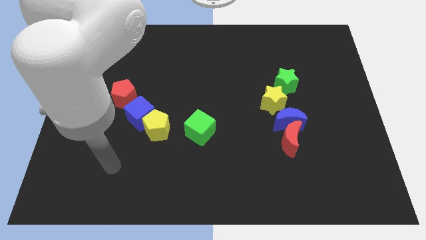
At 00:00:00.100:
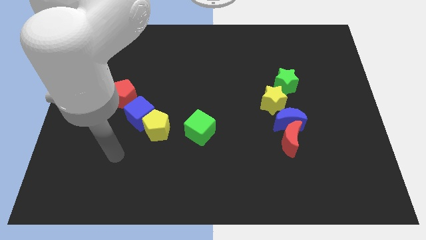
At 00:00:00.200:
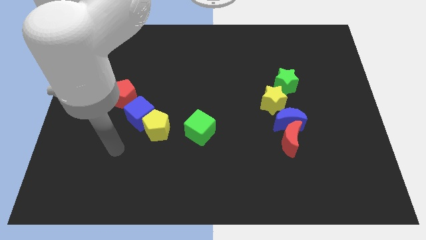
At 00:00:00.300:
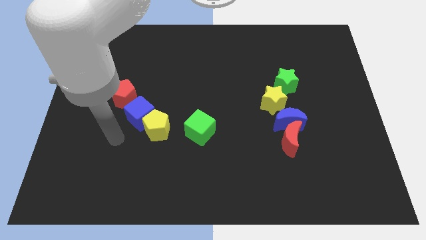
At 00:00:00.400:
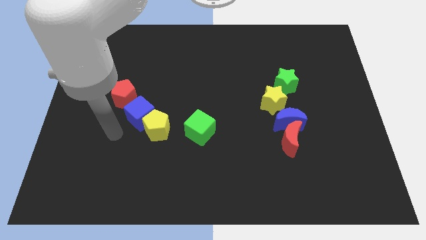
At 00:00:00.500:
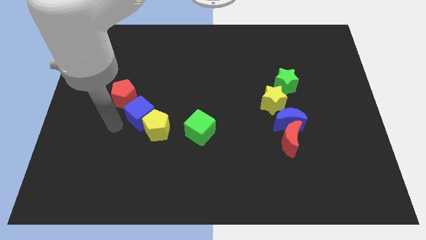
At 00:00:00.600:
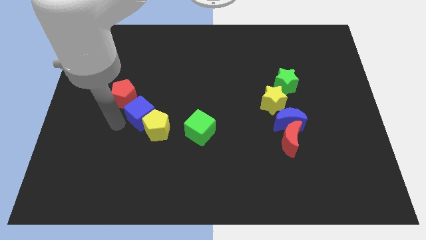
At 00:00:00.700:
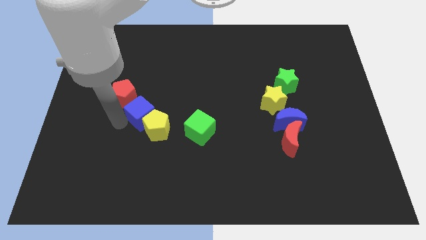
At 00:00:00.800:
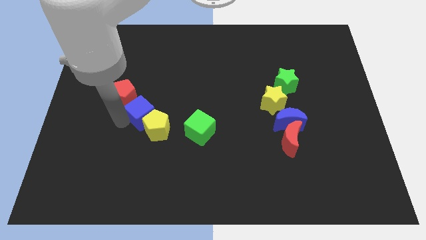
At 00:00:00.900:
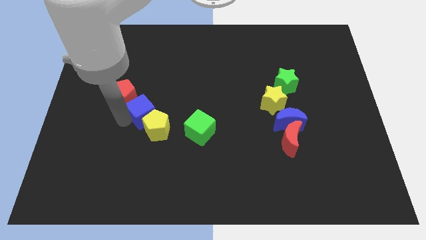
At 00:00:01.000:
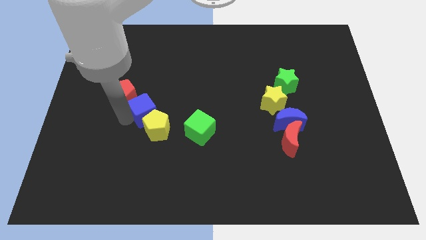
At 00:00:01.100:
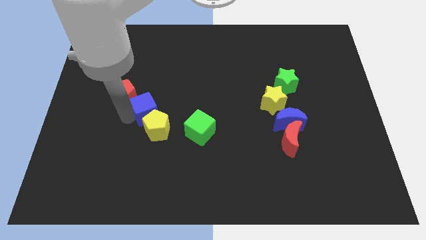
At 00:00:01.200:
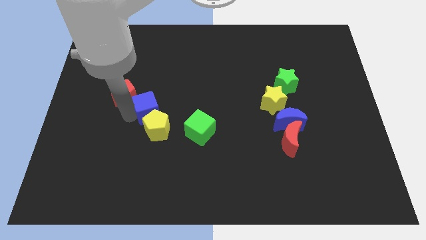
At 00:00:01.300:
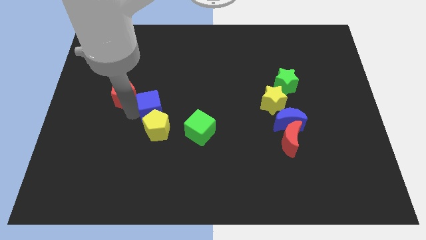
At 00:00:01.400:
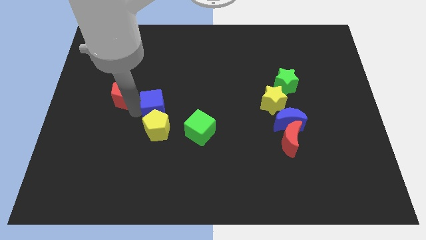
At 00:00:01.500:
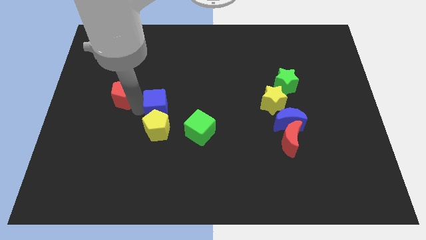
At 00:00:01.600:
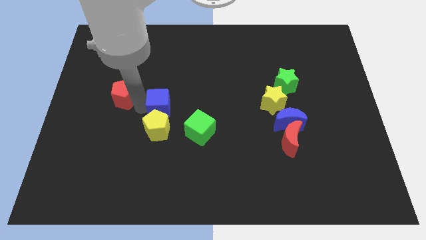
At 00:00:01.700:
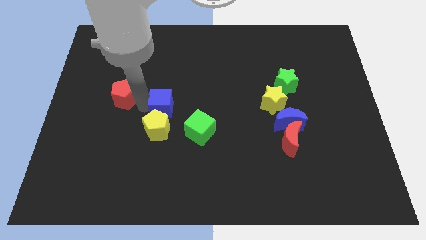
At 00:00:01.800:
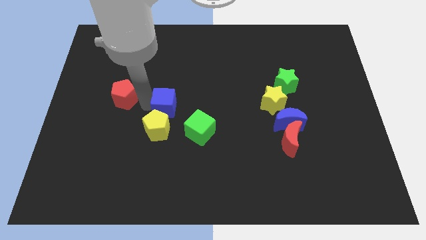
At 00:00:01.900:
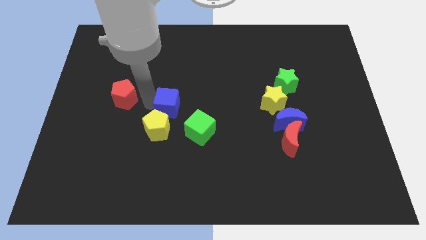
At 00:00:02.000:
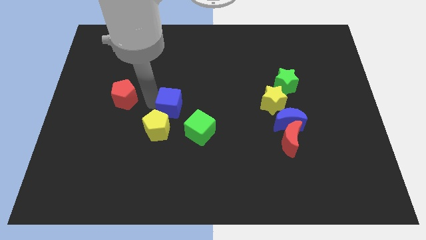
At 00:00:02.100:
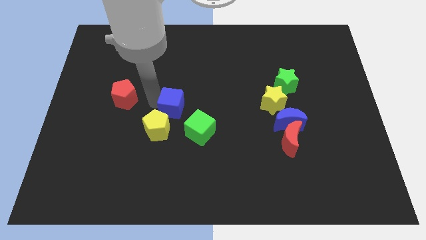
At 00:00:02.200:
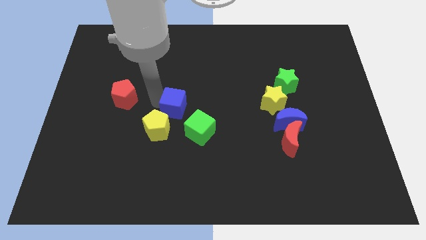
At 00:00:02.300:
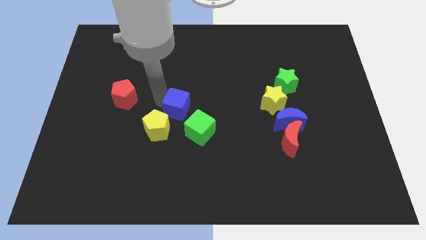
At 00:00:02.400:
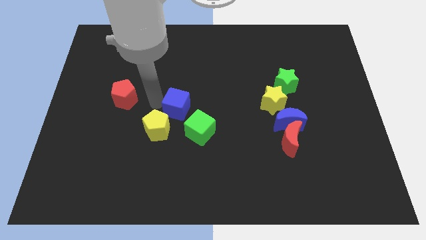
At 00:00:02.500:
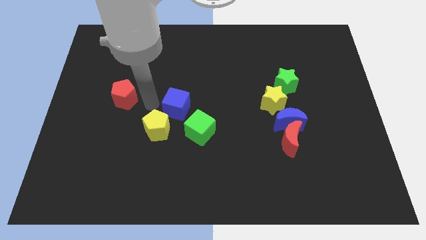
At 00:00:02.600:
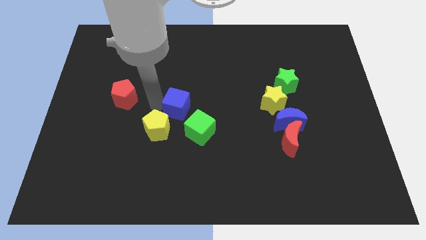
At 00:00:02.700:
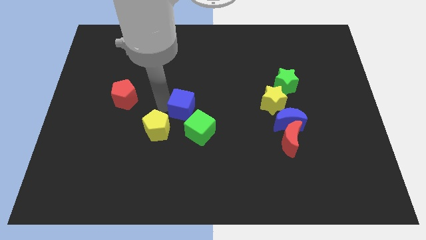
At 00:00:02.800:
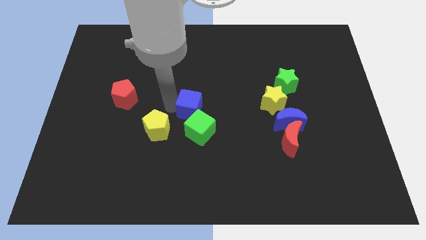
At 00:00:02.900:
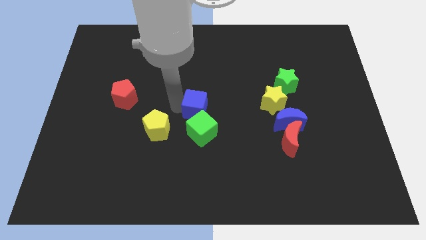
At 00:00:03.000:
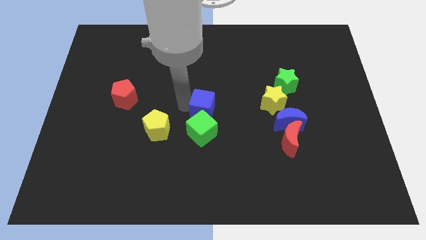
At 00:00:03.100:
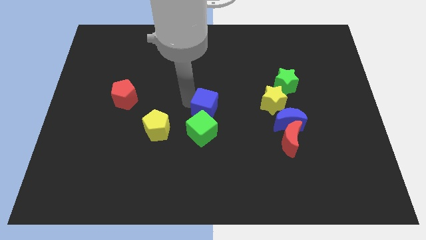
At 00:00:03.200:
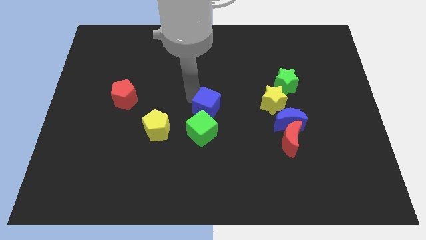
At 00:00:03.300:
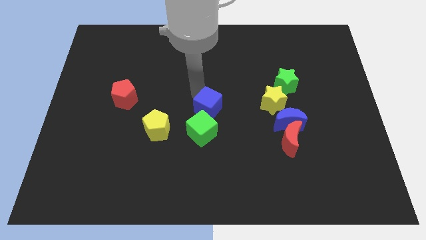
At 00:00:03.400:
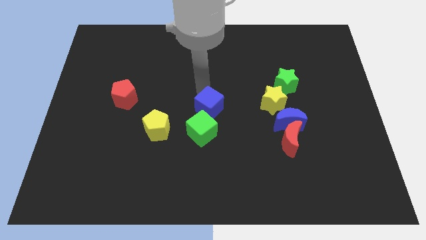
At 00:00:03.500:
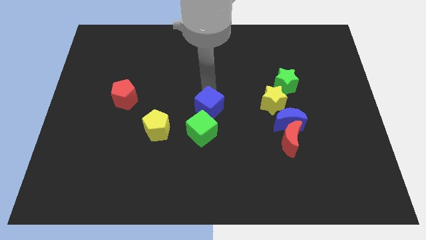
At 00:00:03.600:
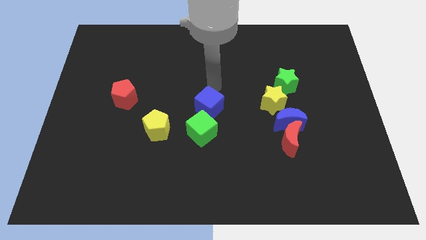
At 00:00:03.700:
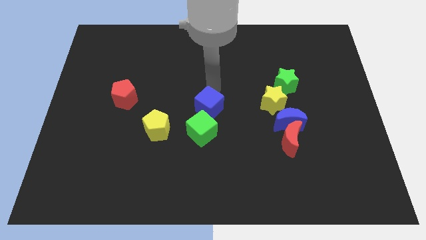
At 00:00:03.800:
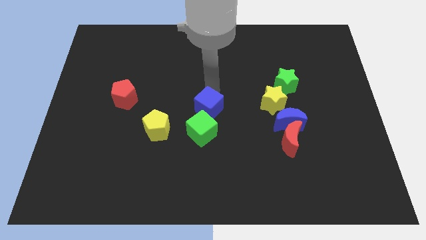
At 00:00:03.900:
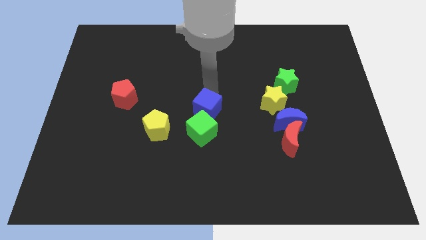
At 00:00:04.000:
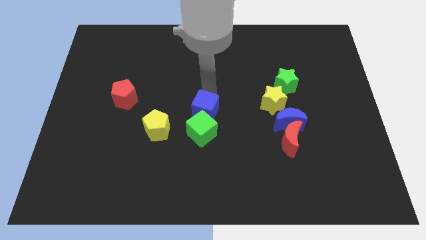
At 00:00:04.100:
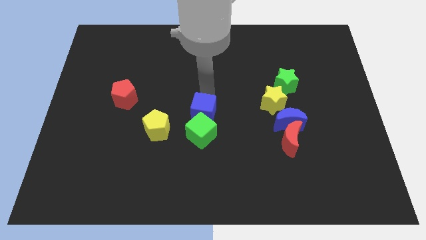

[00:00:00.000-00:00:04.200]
push the blue cube to the right side of the yellow pentagon

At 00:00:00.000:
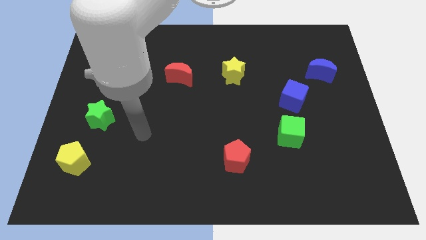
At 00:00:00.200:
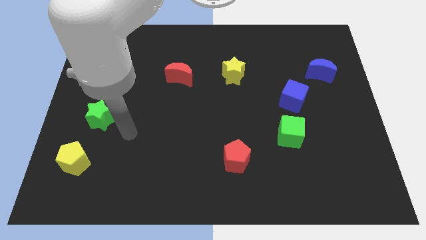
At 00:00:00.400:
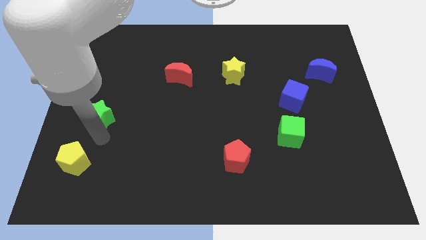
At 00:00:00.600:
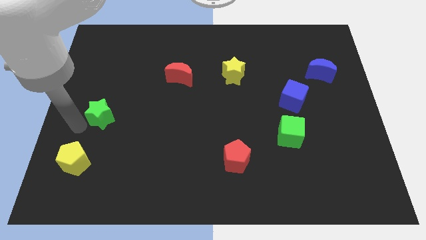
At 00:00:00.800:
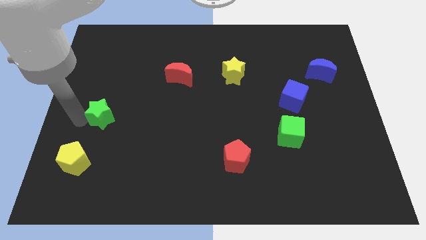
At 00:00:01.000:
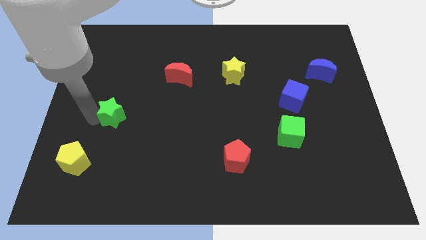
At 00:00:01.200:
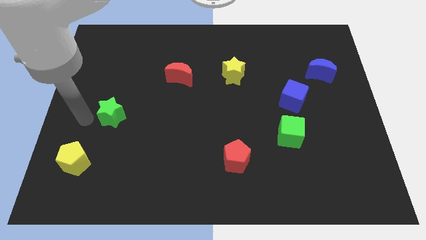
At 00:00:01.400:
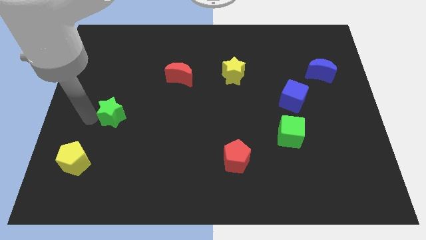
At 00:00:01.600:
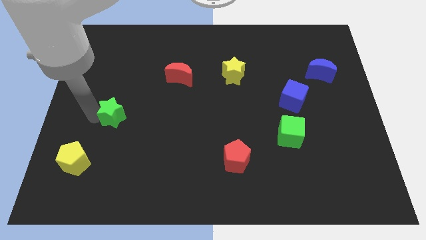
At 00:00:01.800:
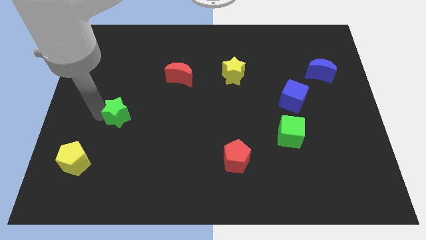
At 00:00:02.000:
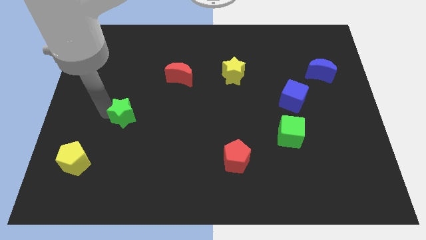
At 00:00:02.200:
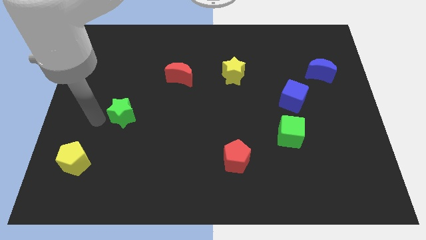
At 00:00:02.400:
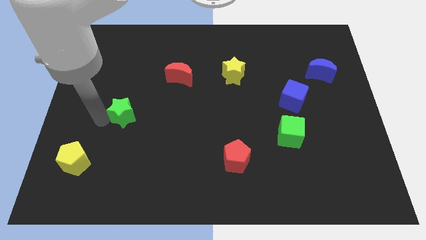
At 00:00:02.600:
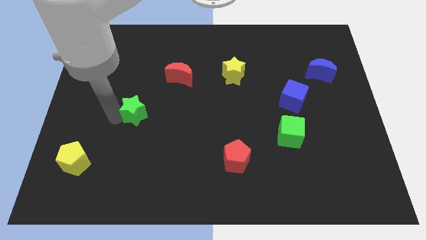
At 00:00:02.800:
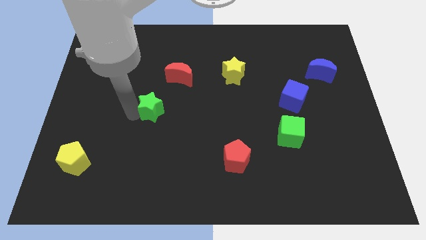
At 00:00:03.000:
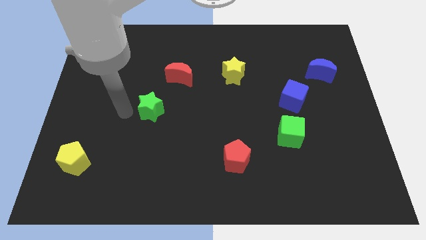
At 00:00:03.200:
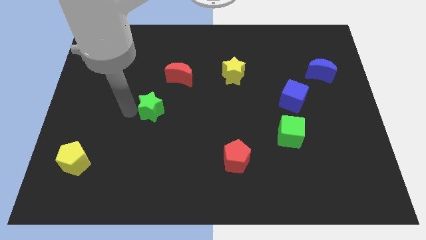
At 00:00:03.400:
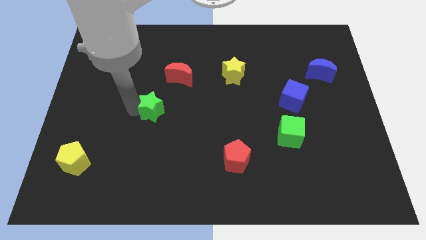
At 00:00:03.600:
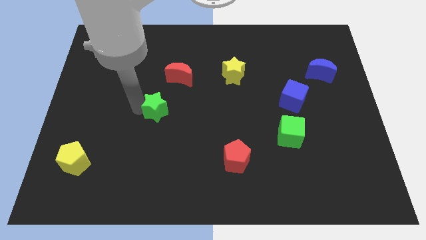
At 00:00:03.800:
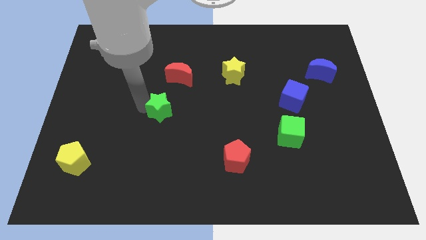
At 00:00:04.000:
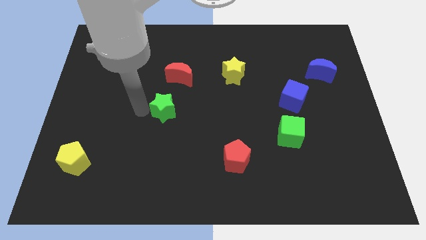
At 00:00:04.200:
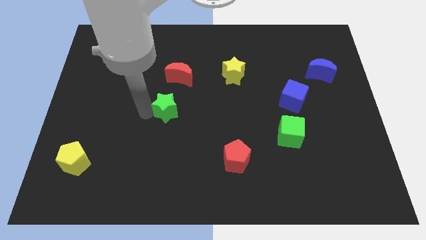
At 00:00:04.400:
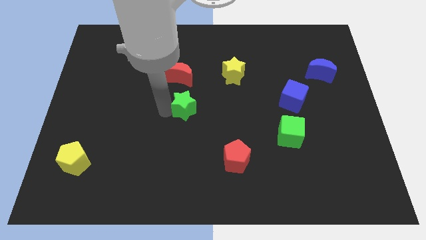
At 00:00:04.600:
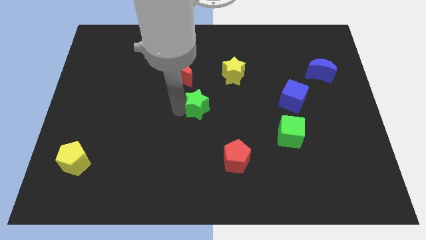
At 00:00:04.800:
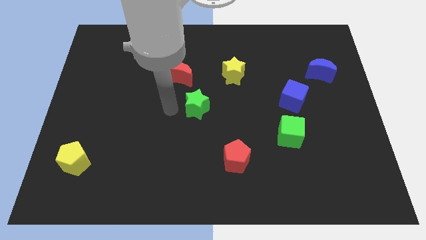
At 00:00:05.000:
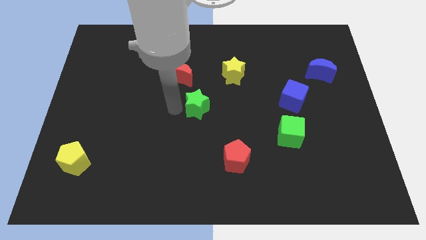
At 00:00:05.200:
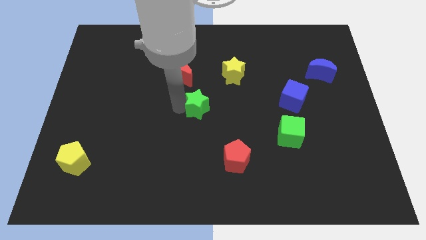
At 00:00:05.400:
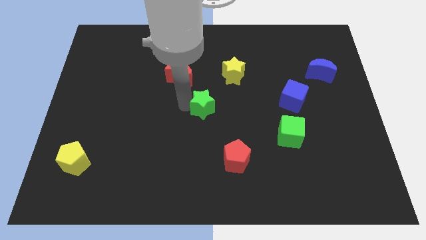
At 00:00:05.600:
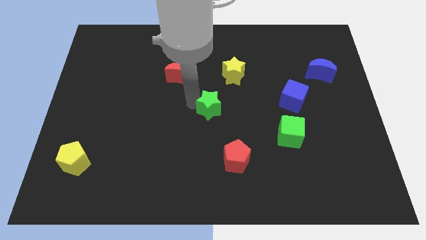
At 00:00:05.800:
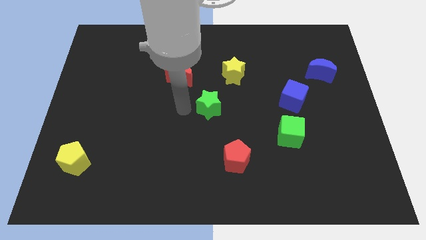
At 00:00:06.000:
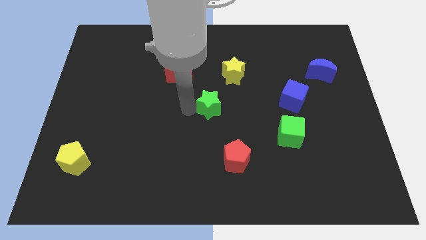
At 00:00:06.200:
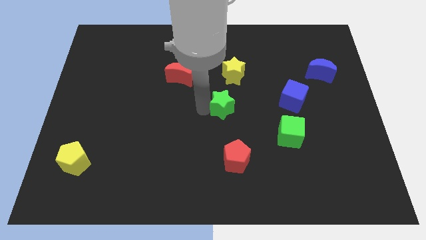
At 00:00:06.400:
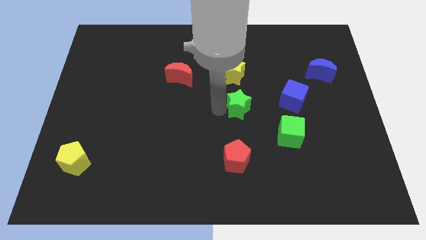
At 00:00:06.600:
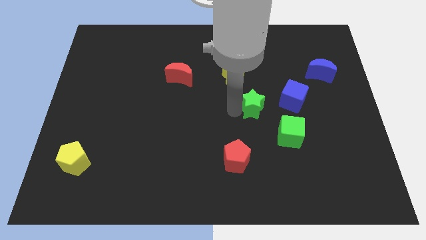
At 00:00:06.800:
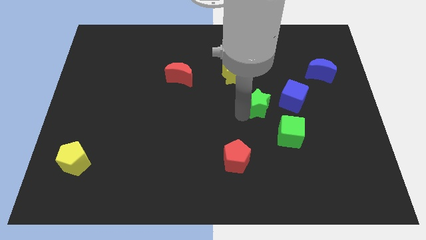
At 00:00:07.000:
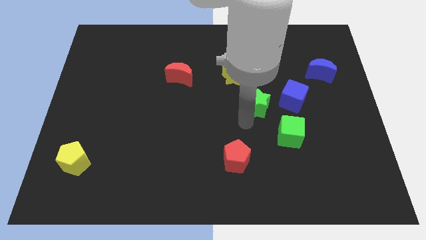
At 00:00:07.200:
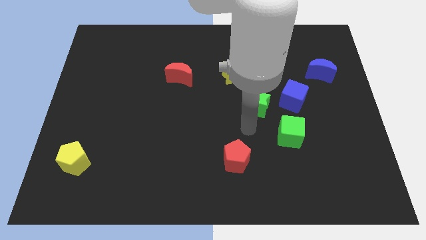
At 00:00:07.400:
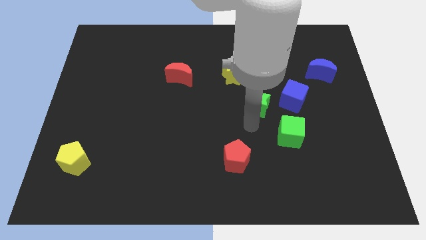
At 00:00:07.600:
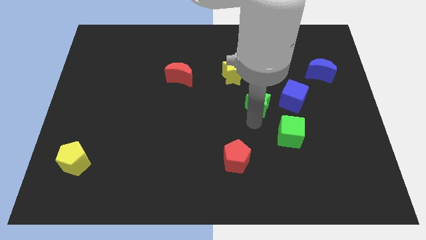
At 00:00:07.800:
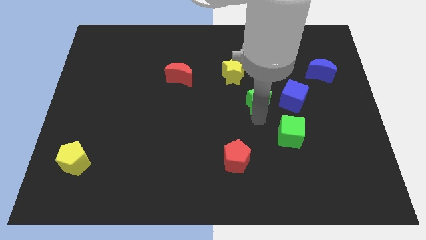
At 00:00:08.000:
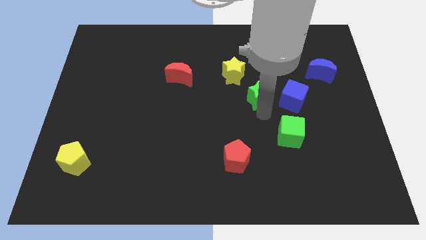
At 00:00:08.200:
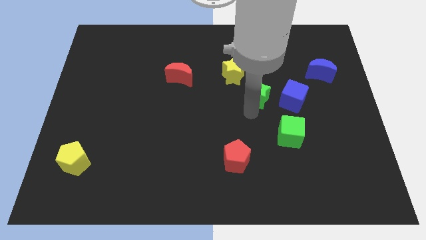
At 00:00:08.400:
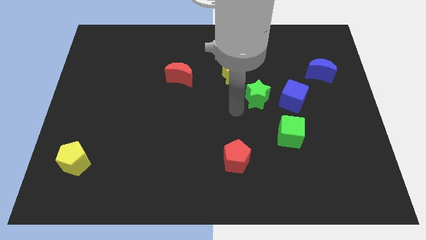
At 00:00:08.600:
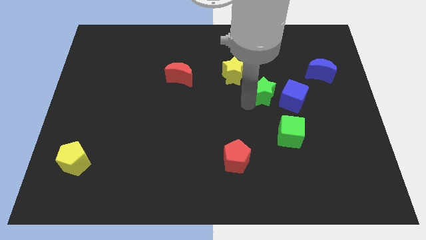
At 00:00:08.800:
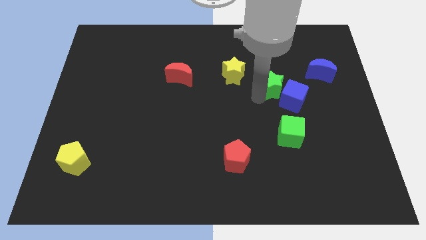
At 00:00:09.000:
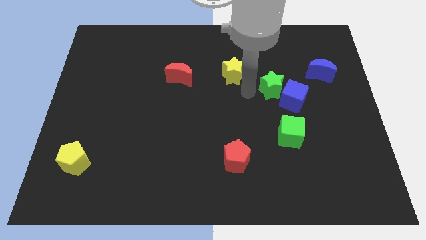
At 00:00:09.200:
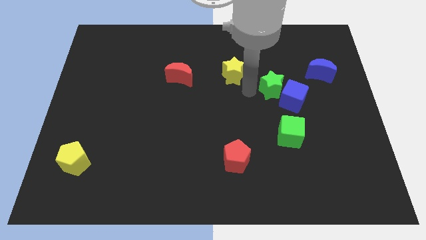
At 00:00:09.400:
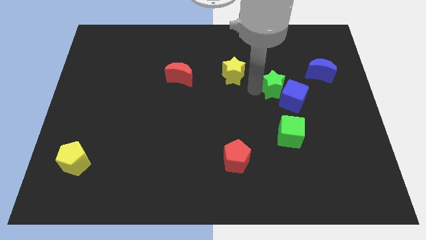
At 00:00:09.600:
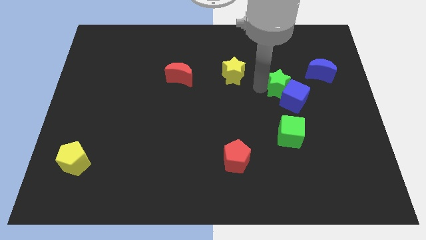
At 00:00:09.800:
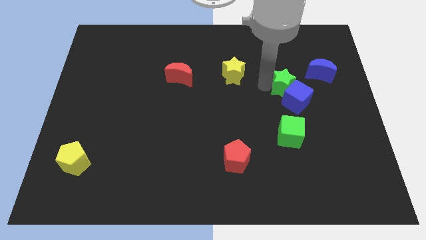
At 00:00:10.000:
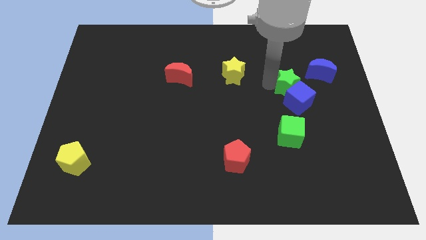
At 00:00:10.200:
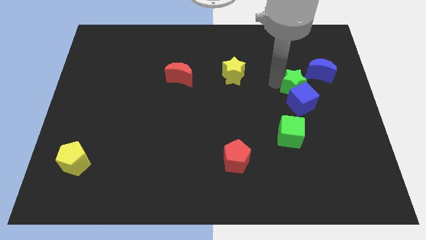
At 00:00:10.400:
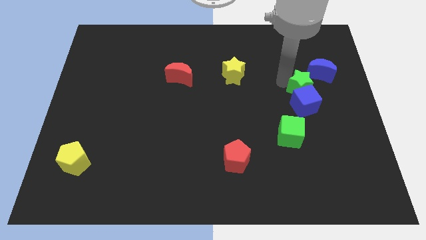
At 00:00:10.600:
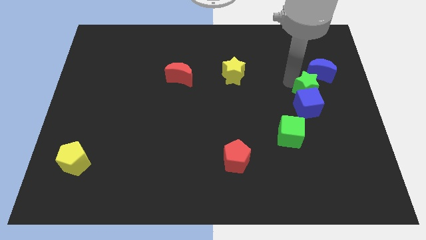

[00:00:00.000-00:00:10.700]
put the green star to the bottom of the blue moon
